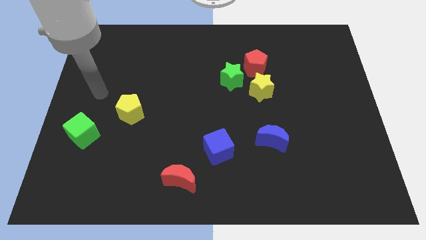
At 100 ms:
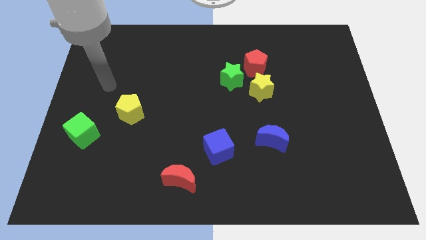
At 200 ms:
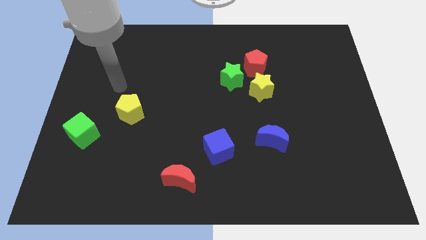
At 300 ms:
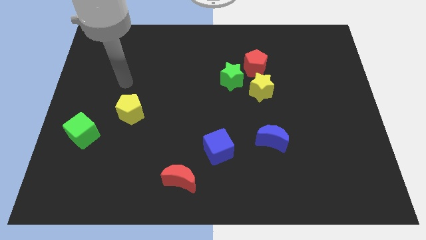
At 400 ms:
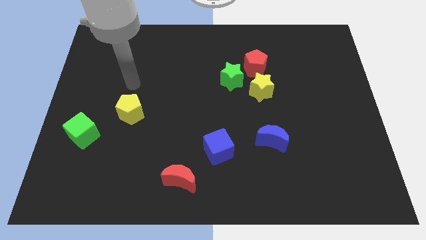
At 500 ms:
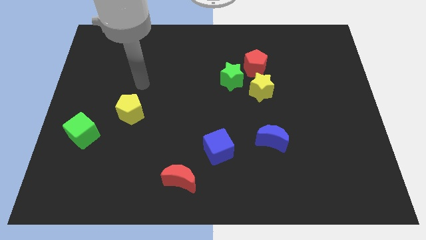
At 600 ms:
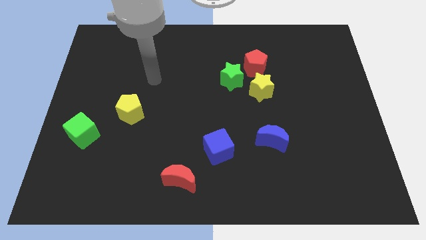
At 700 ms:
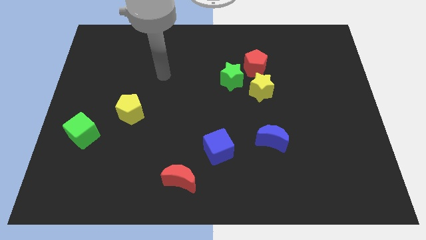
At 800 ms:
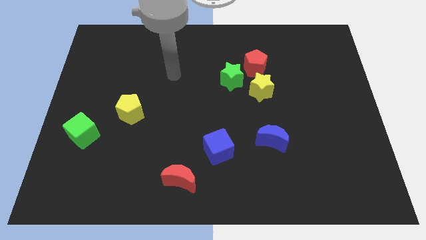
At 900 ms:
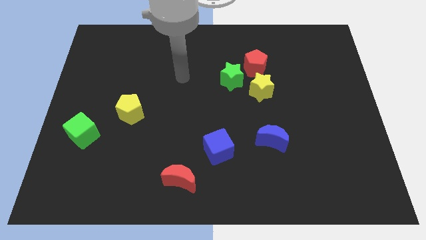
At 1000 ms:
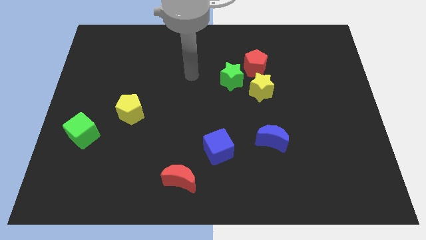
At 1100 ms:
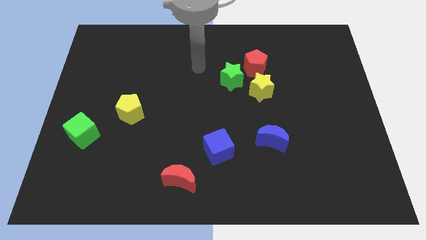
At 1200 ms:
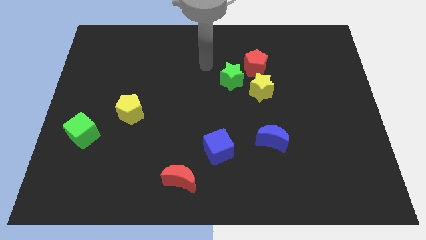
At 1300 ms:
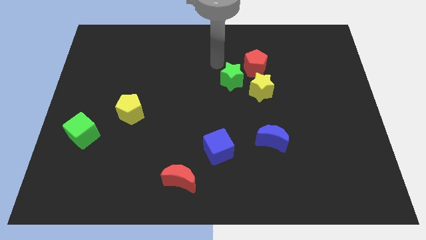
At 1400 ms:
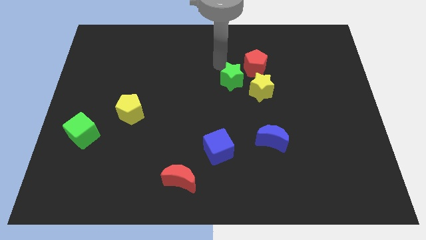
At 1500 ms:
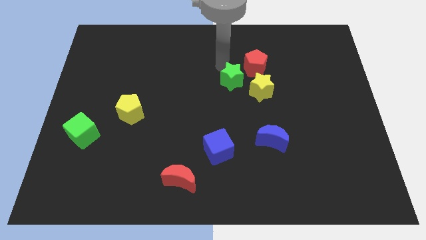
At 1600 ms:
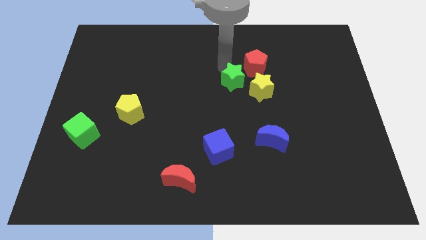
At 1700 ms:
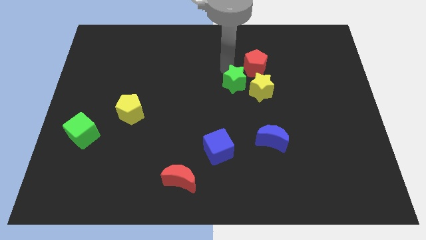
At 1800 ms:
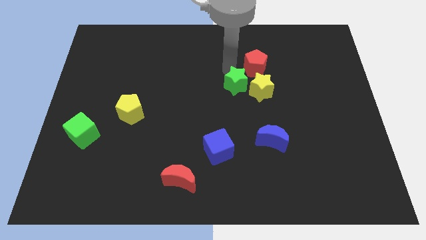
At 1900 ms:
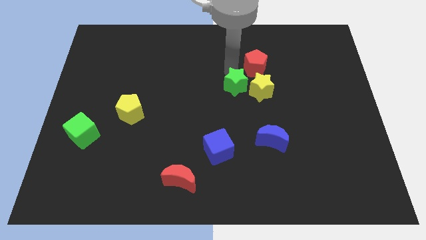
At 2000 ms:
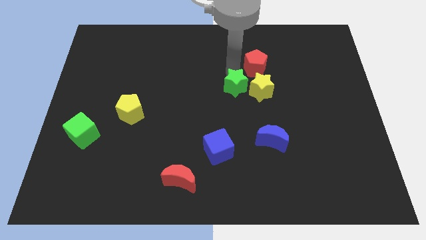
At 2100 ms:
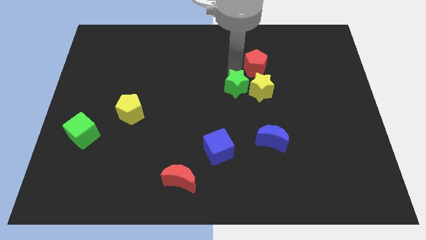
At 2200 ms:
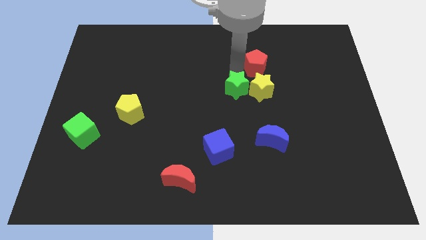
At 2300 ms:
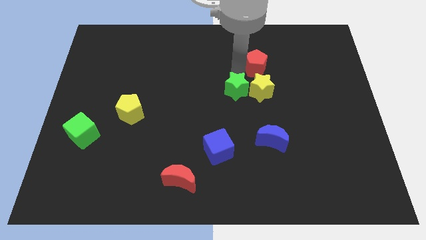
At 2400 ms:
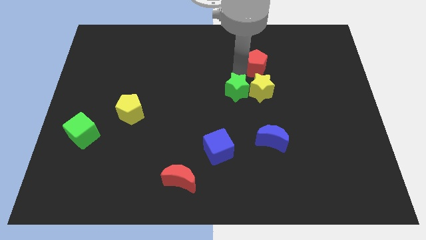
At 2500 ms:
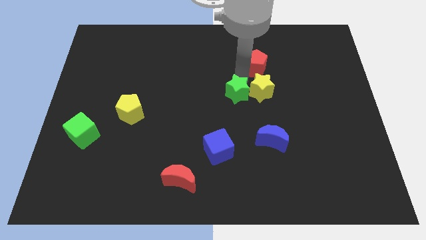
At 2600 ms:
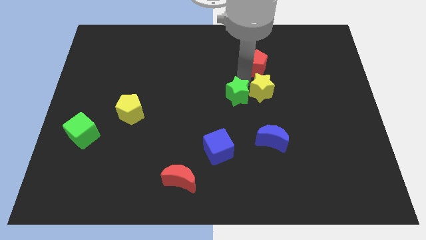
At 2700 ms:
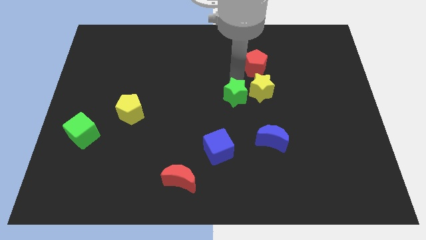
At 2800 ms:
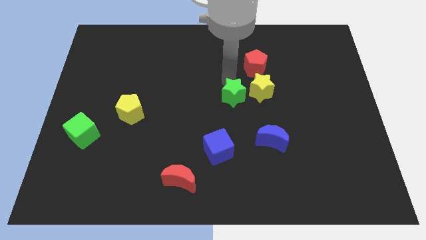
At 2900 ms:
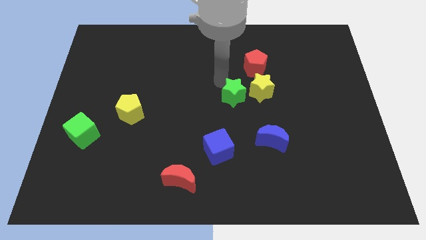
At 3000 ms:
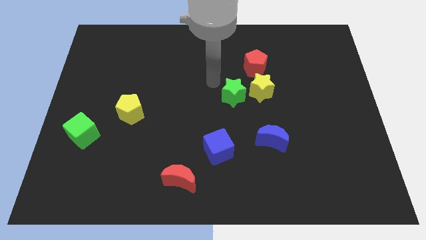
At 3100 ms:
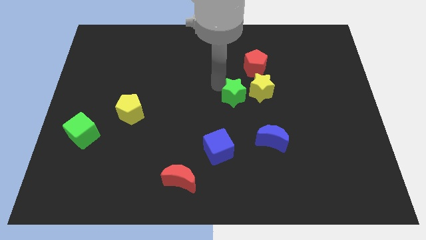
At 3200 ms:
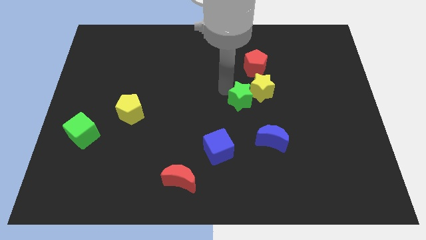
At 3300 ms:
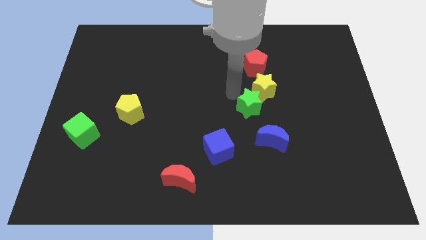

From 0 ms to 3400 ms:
slide the green star slightly diagonally downwards and to the right

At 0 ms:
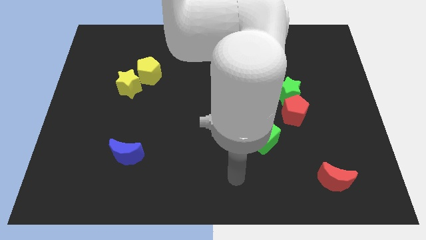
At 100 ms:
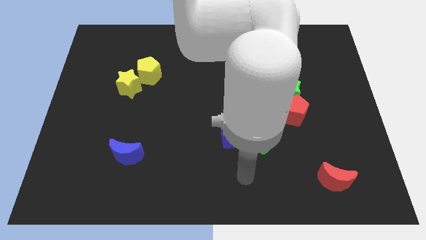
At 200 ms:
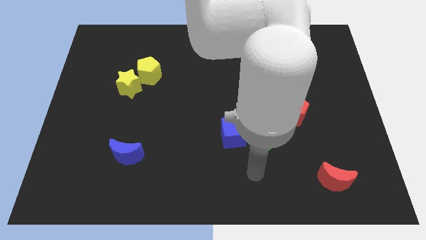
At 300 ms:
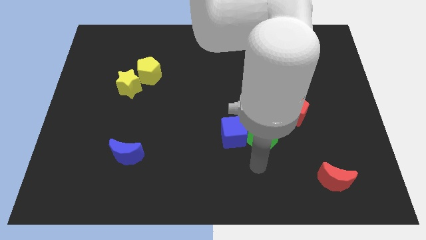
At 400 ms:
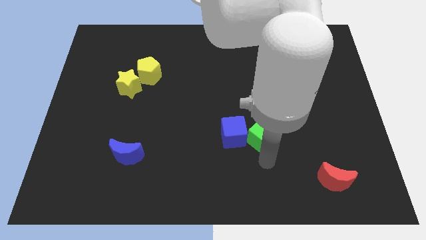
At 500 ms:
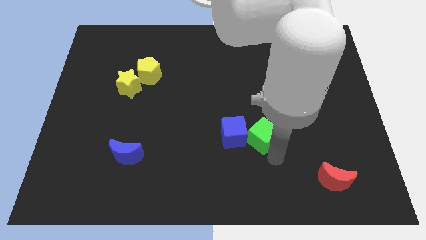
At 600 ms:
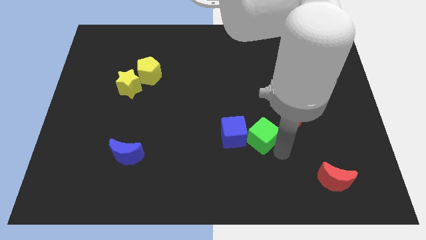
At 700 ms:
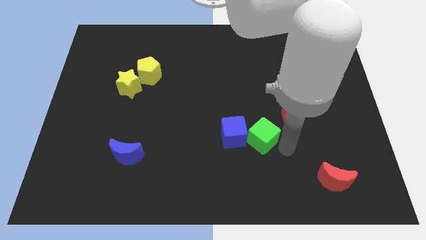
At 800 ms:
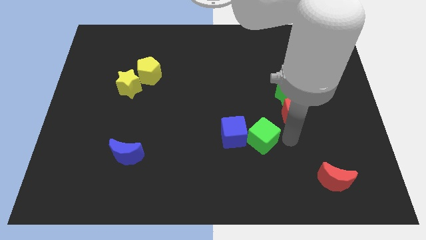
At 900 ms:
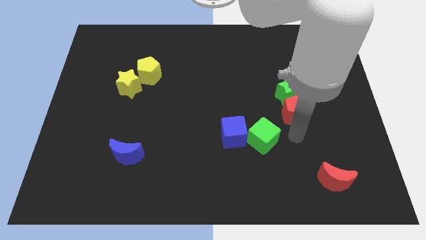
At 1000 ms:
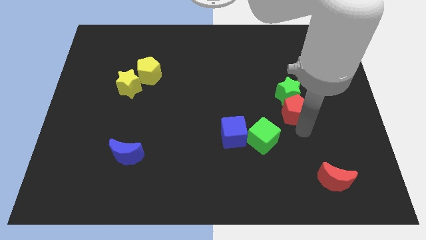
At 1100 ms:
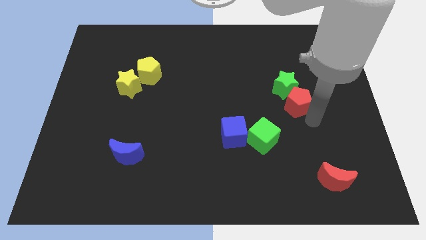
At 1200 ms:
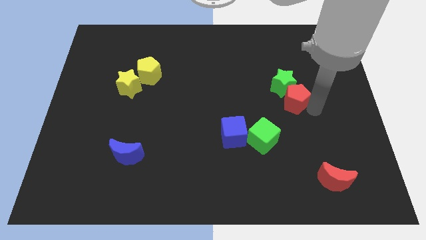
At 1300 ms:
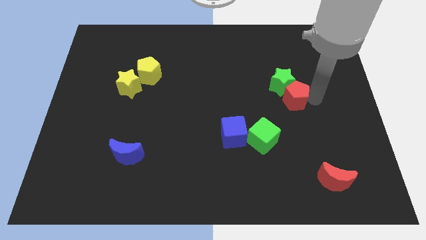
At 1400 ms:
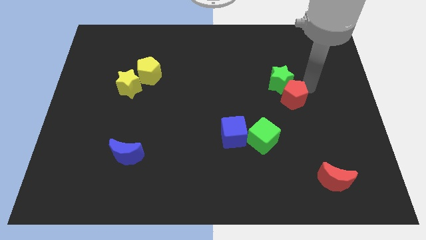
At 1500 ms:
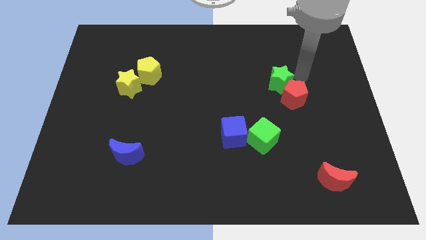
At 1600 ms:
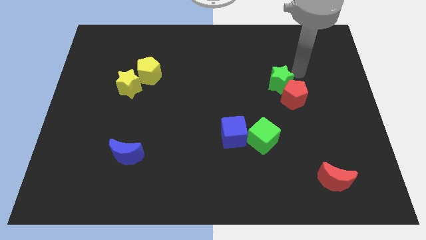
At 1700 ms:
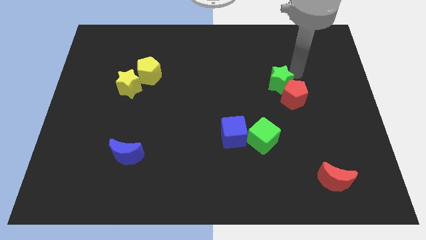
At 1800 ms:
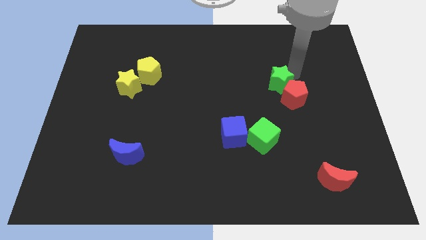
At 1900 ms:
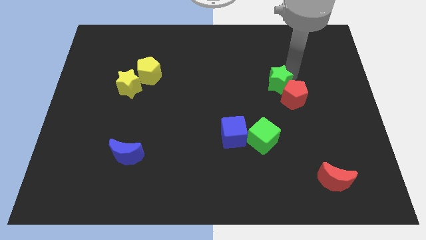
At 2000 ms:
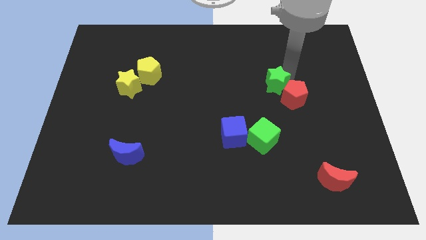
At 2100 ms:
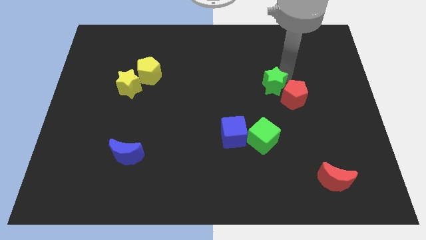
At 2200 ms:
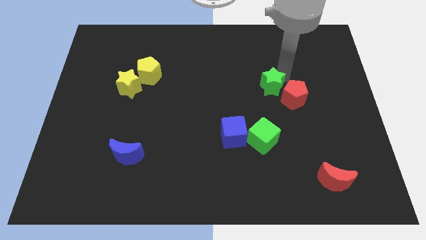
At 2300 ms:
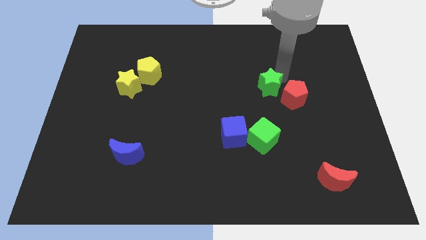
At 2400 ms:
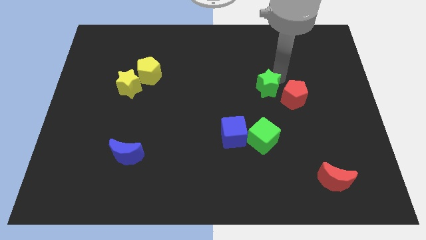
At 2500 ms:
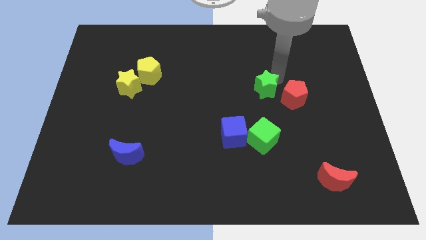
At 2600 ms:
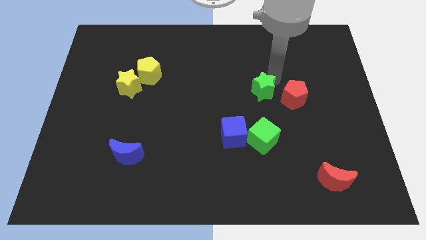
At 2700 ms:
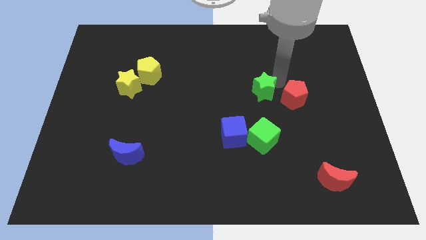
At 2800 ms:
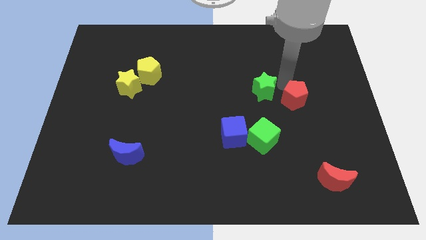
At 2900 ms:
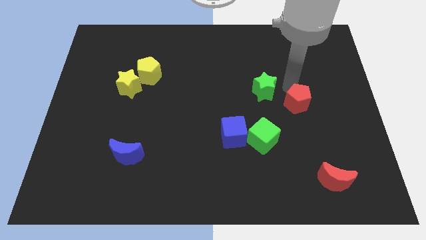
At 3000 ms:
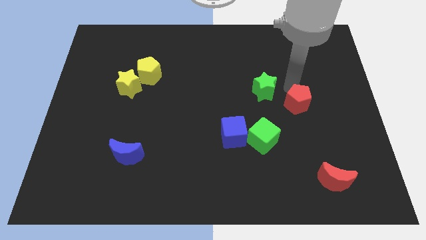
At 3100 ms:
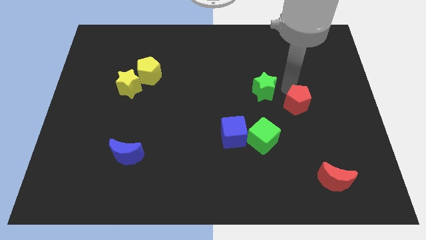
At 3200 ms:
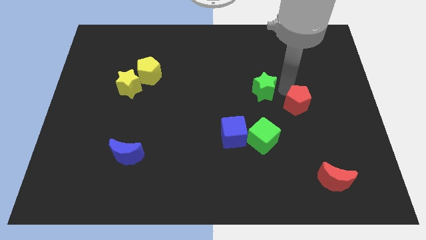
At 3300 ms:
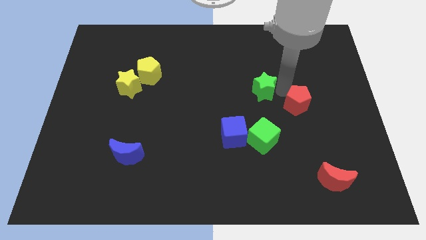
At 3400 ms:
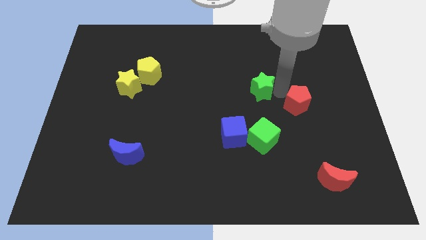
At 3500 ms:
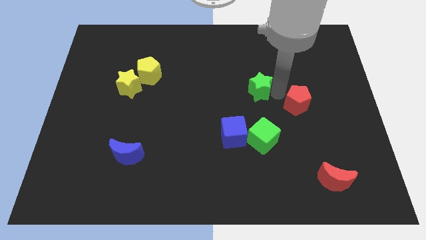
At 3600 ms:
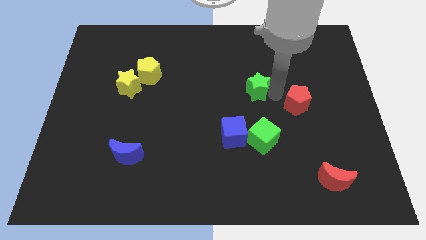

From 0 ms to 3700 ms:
slide the green star slightly to the left

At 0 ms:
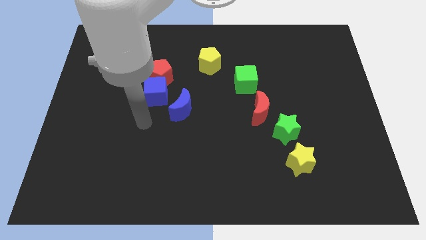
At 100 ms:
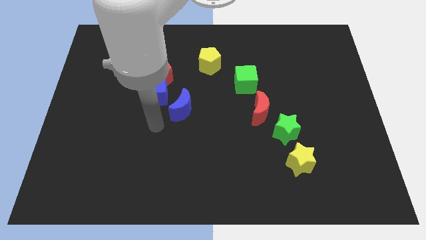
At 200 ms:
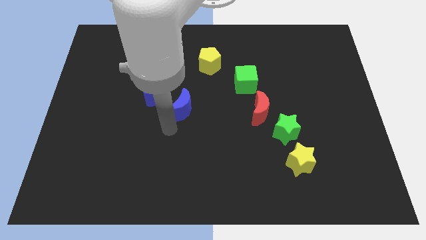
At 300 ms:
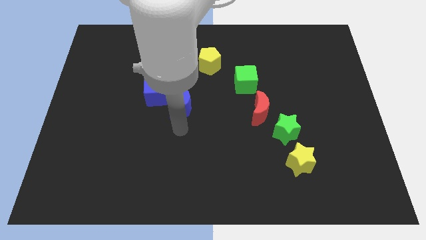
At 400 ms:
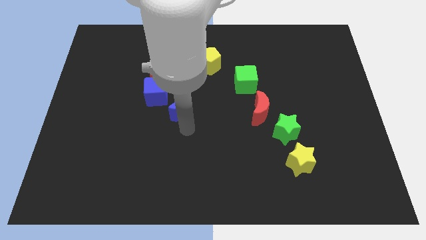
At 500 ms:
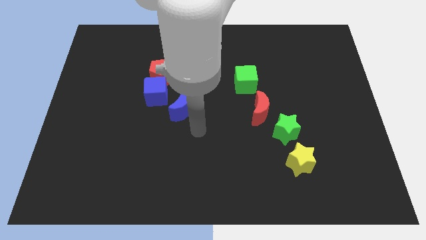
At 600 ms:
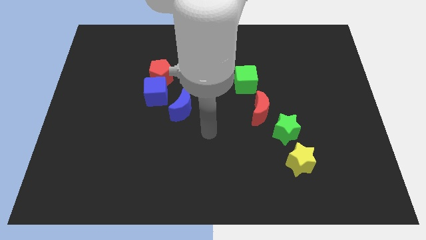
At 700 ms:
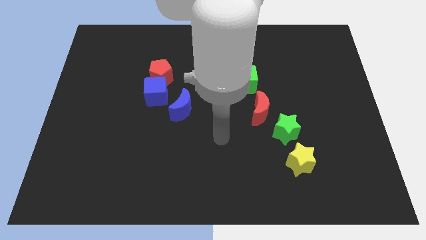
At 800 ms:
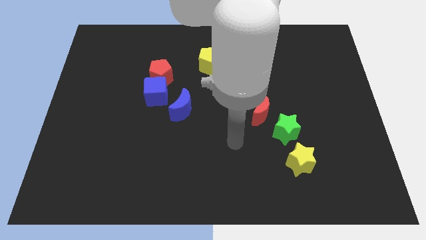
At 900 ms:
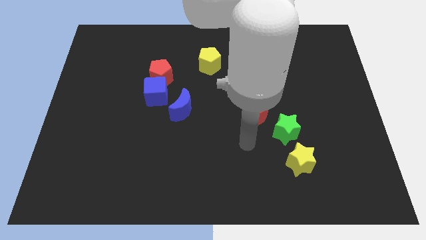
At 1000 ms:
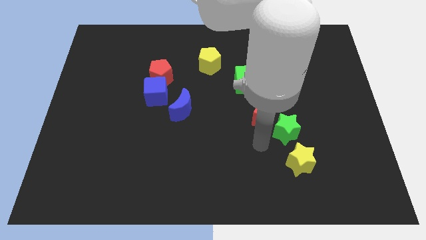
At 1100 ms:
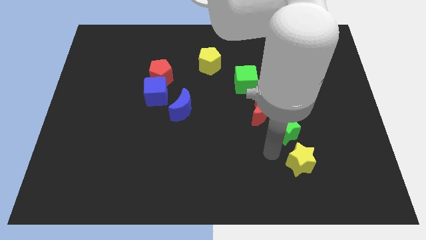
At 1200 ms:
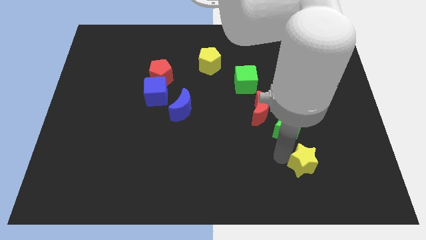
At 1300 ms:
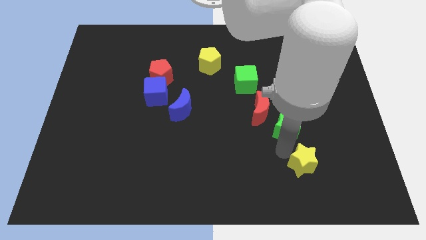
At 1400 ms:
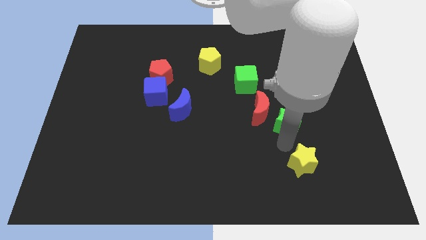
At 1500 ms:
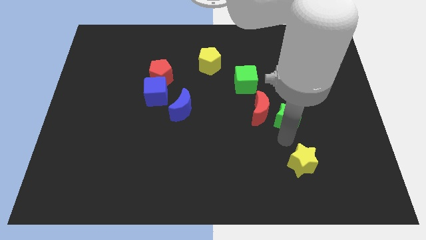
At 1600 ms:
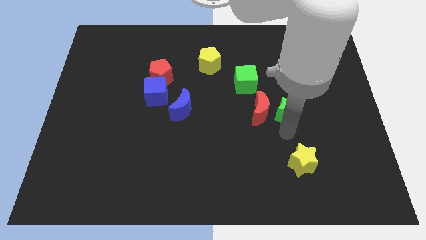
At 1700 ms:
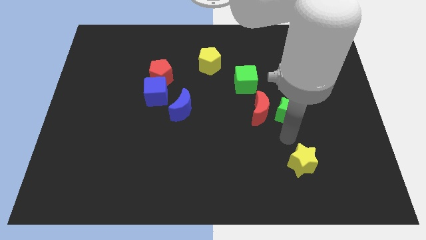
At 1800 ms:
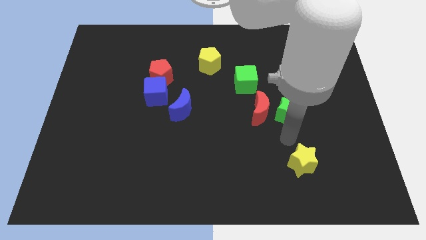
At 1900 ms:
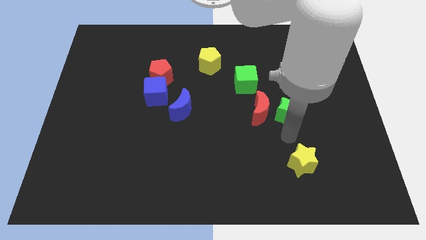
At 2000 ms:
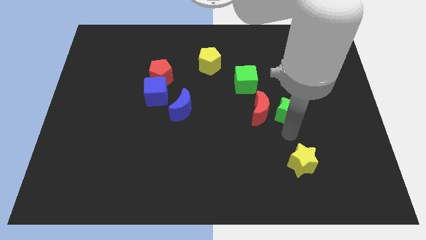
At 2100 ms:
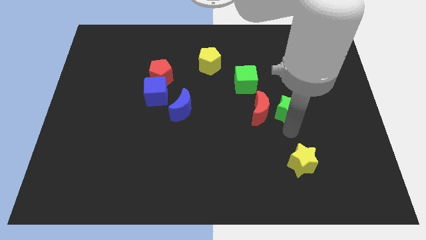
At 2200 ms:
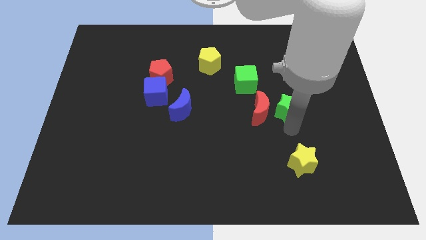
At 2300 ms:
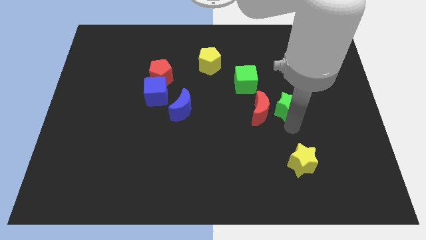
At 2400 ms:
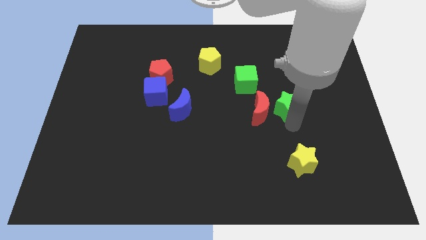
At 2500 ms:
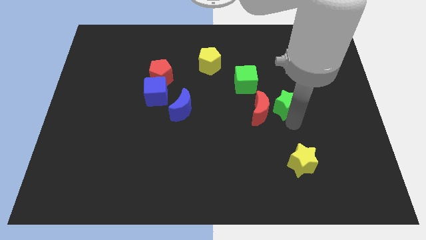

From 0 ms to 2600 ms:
slide the green star up a little bit
